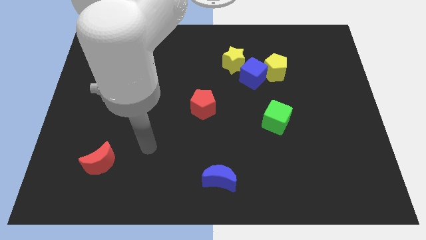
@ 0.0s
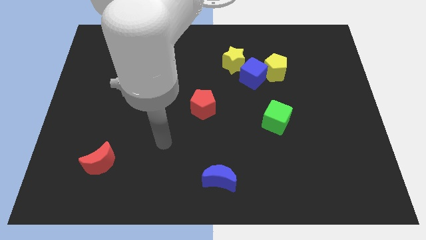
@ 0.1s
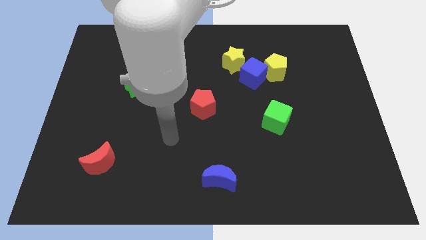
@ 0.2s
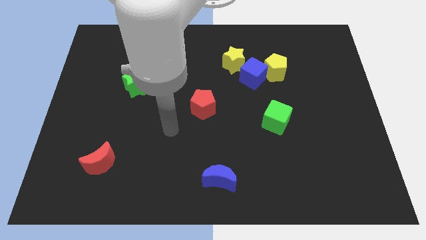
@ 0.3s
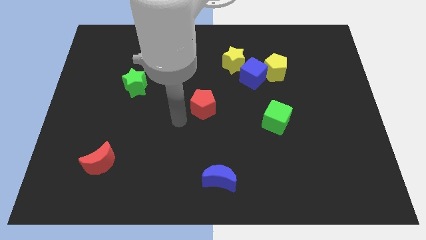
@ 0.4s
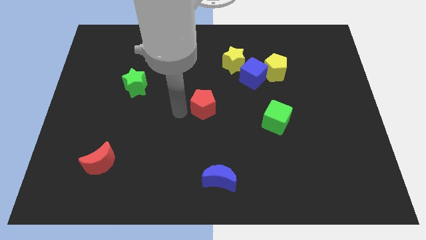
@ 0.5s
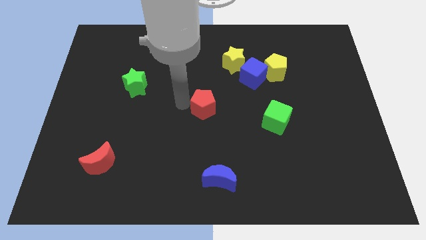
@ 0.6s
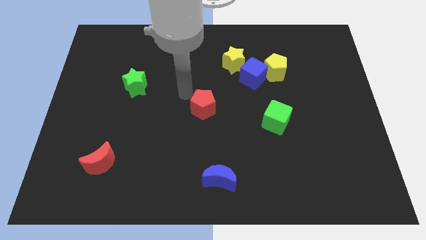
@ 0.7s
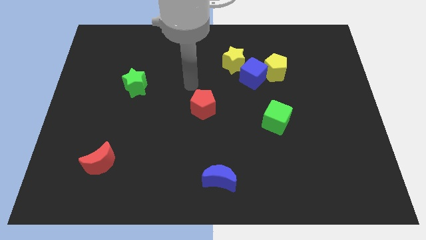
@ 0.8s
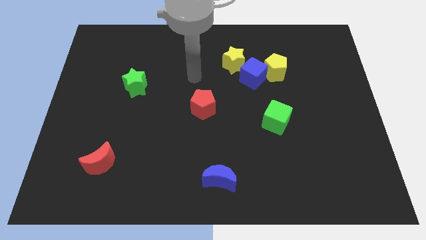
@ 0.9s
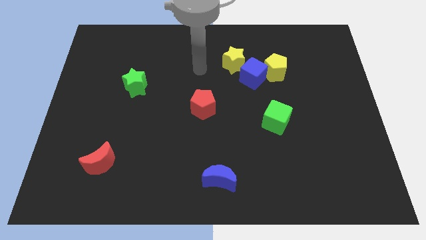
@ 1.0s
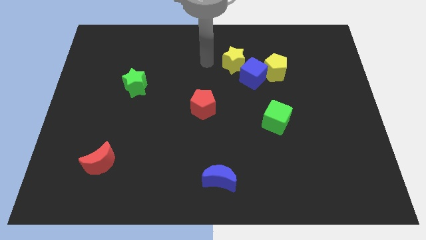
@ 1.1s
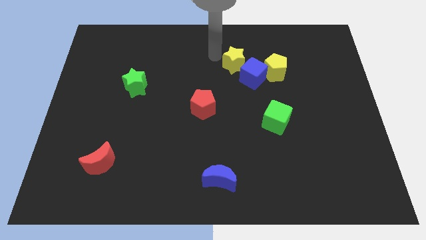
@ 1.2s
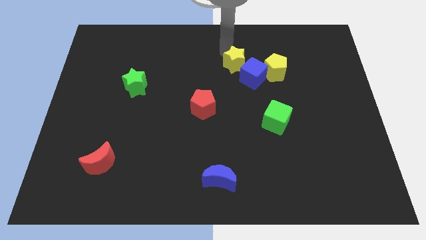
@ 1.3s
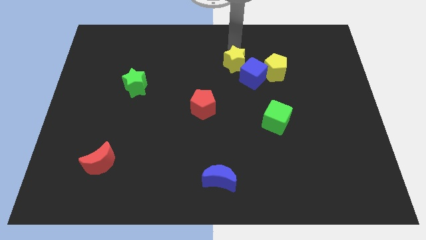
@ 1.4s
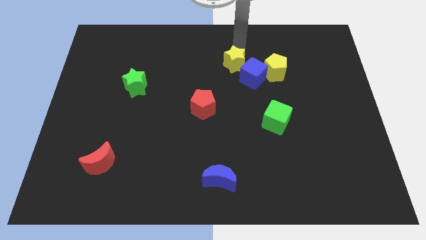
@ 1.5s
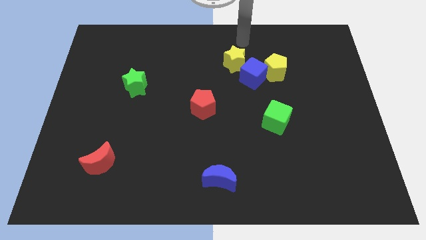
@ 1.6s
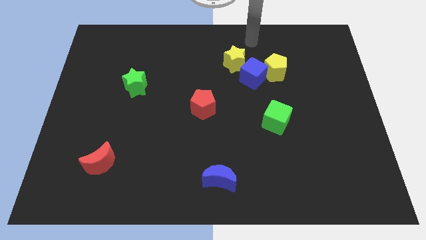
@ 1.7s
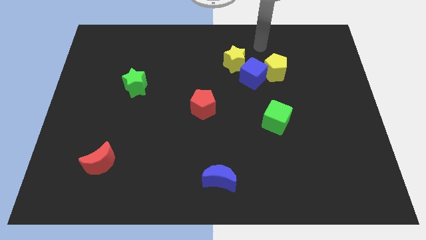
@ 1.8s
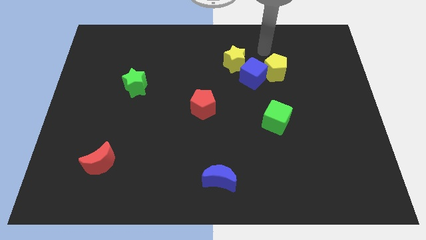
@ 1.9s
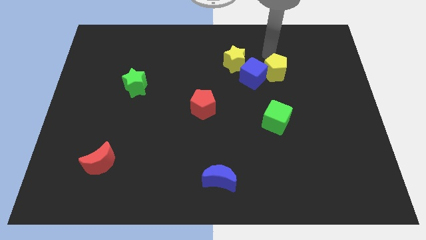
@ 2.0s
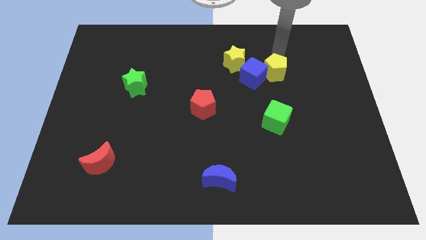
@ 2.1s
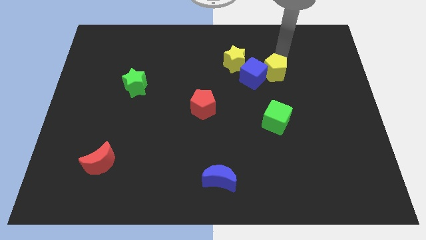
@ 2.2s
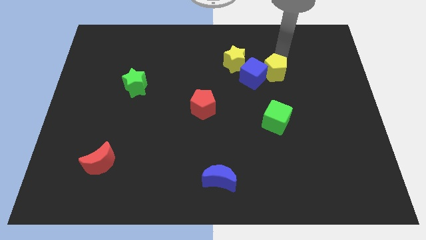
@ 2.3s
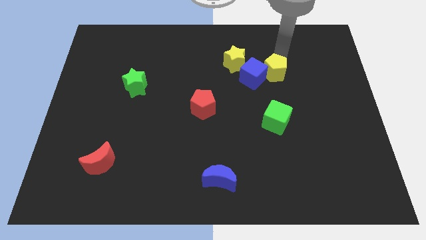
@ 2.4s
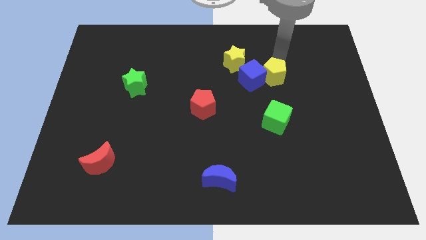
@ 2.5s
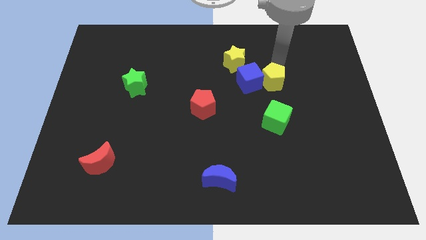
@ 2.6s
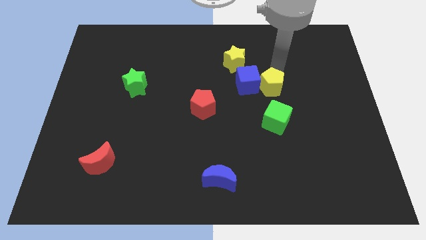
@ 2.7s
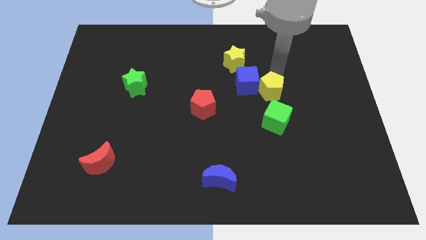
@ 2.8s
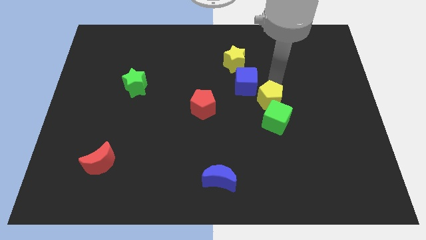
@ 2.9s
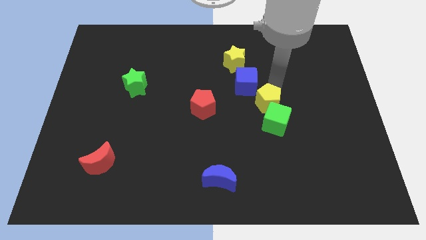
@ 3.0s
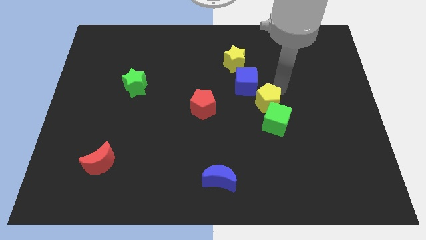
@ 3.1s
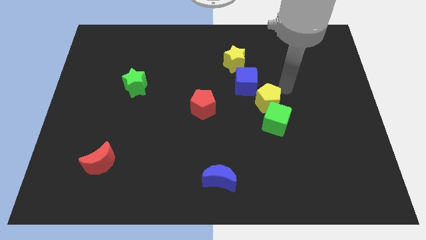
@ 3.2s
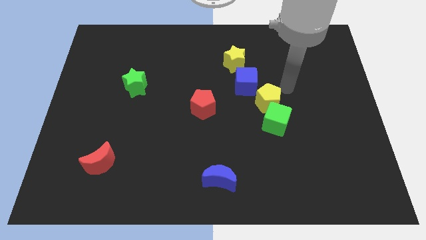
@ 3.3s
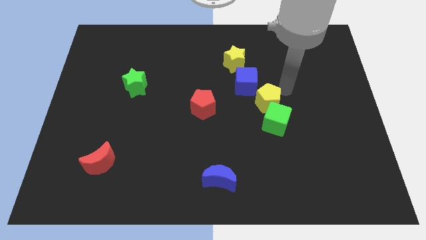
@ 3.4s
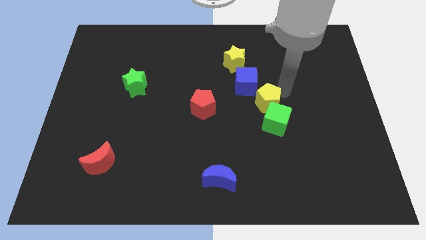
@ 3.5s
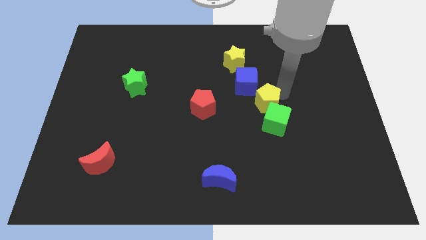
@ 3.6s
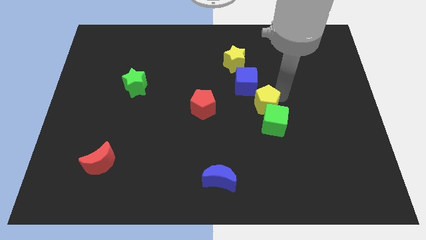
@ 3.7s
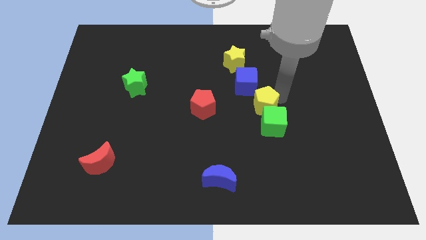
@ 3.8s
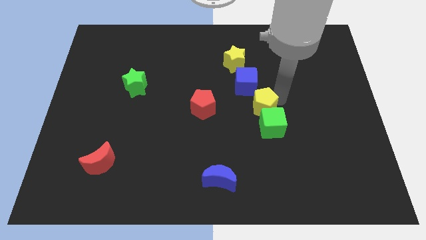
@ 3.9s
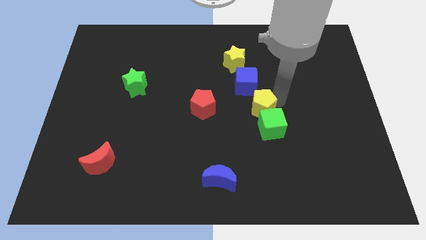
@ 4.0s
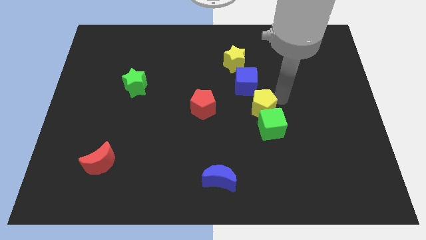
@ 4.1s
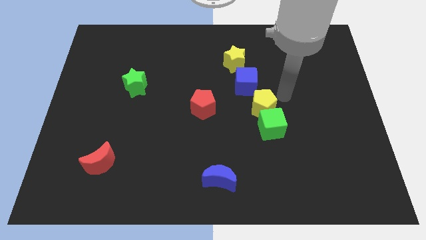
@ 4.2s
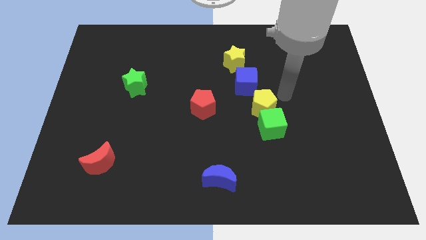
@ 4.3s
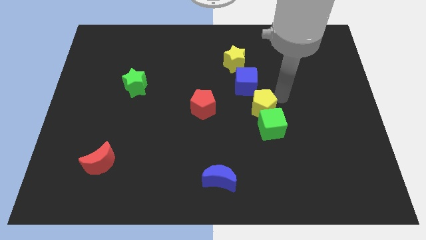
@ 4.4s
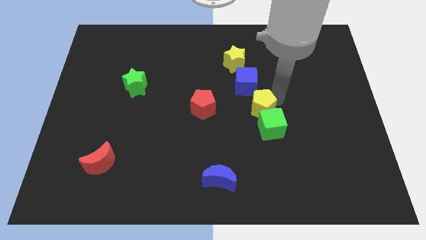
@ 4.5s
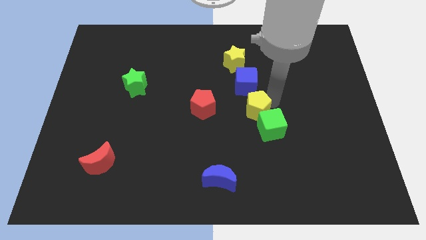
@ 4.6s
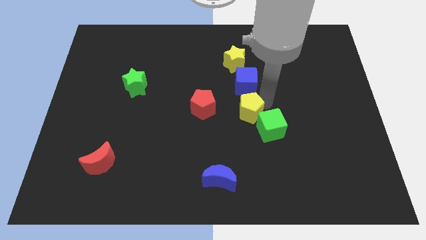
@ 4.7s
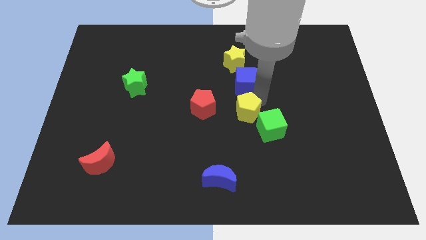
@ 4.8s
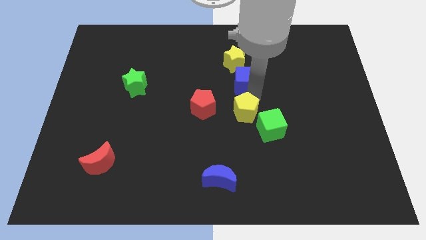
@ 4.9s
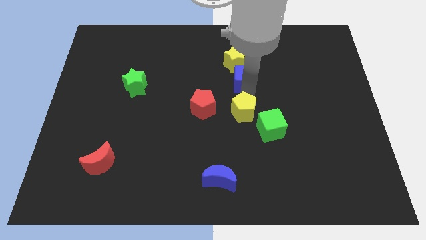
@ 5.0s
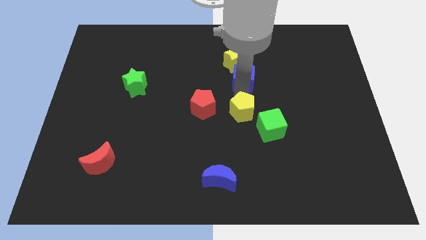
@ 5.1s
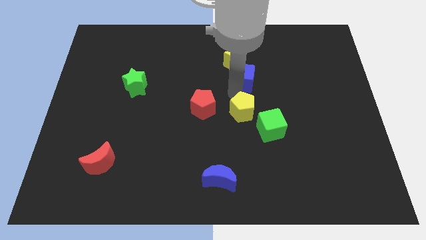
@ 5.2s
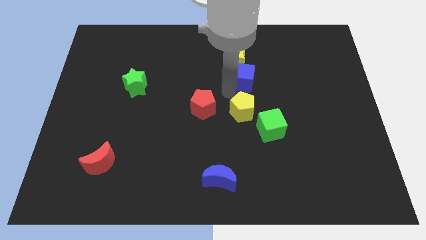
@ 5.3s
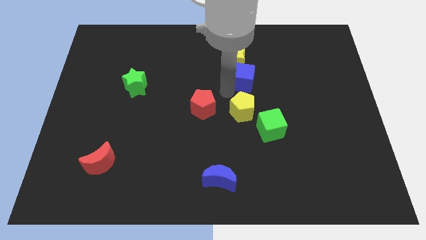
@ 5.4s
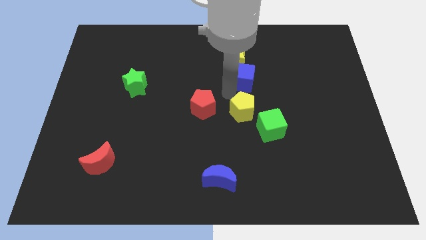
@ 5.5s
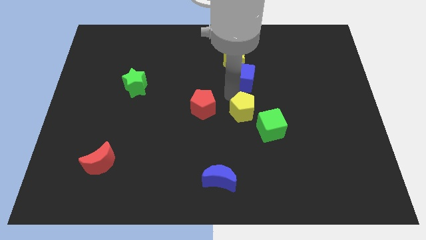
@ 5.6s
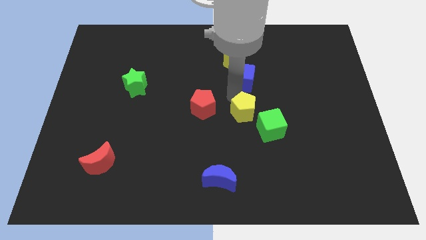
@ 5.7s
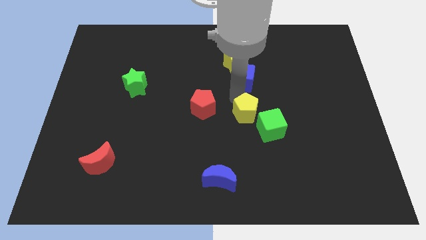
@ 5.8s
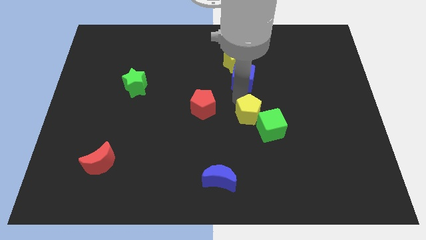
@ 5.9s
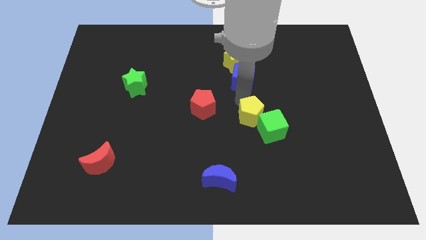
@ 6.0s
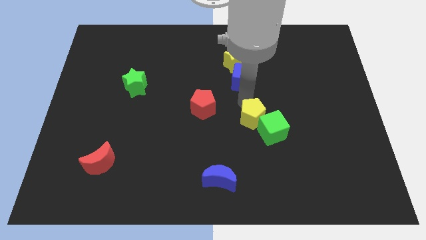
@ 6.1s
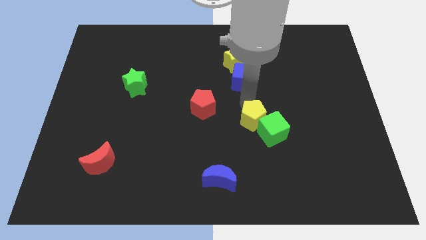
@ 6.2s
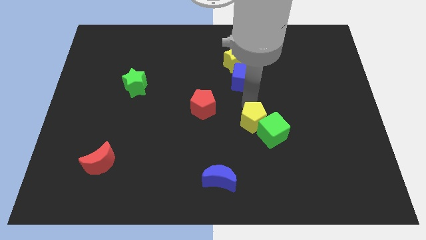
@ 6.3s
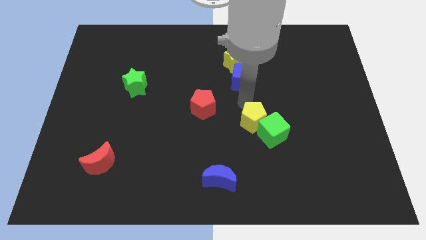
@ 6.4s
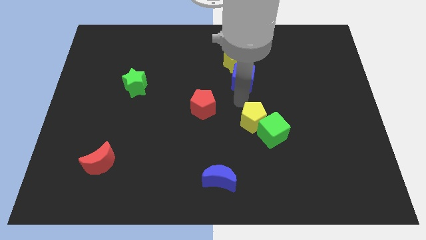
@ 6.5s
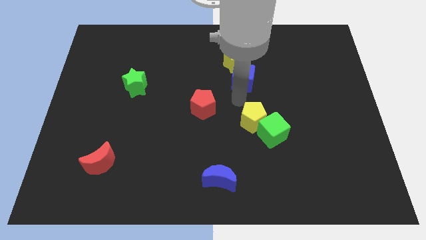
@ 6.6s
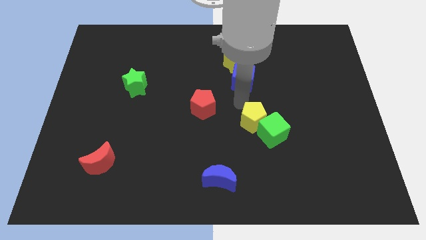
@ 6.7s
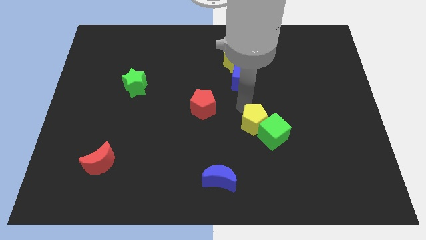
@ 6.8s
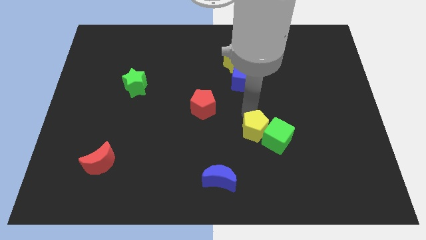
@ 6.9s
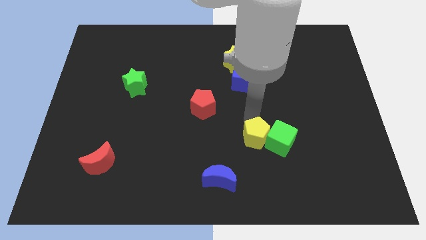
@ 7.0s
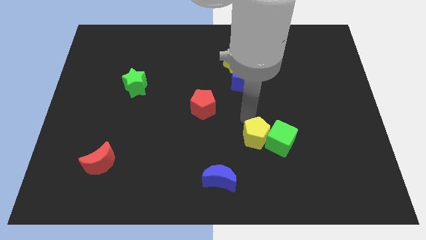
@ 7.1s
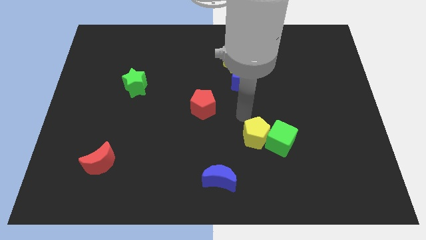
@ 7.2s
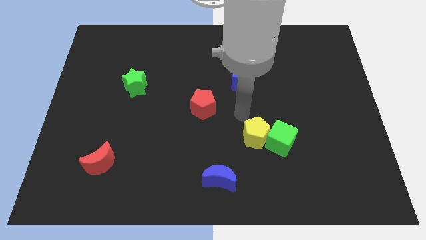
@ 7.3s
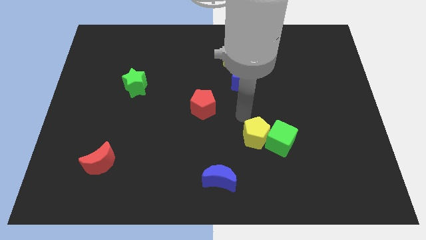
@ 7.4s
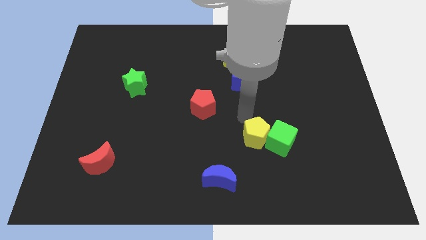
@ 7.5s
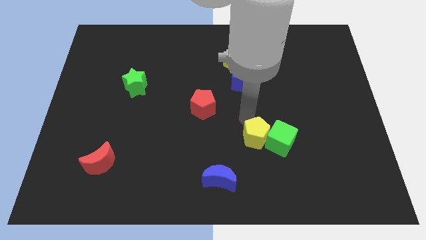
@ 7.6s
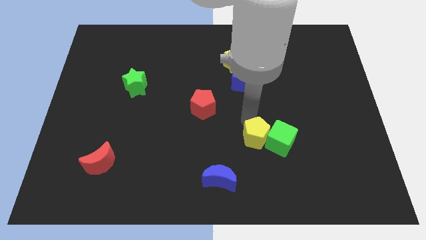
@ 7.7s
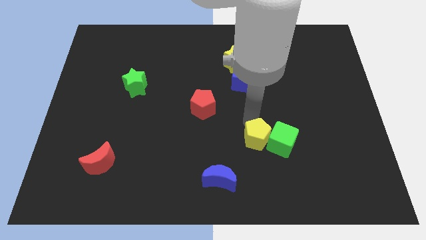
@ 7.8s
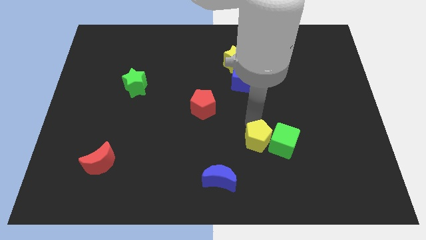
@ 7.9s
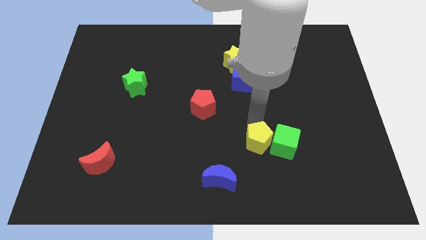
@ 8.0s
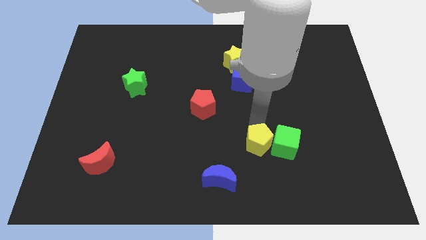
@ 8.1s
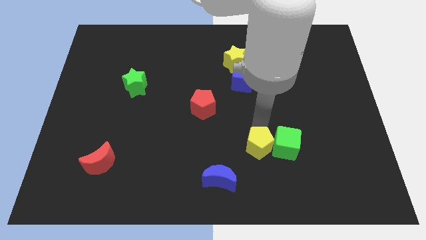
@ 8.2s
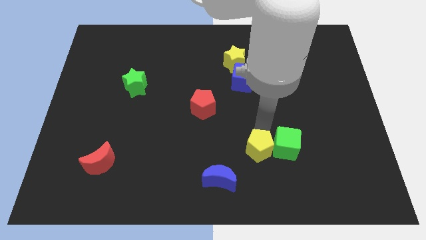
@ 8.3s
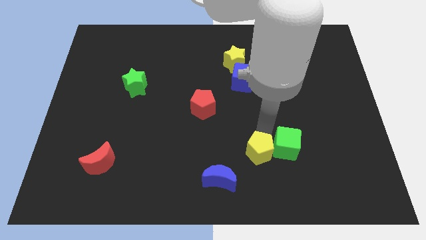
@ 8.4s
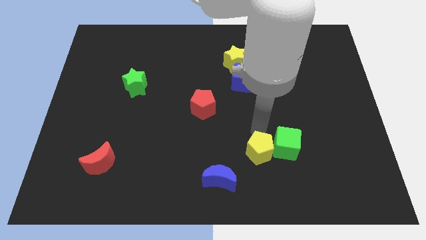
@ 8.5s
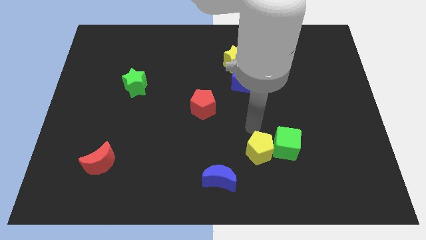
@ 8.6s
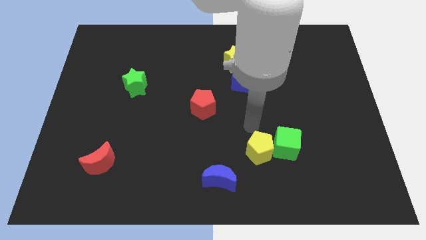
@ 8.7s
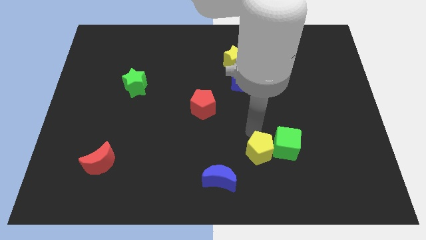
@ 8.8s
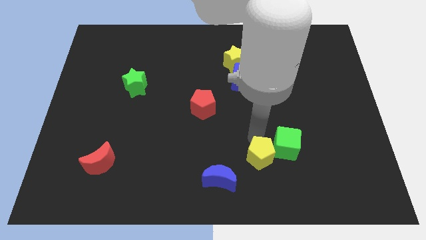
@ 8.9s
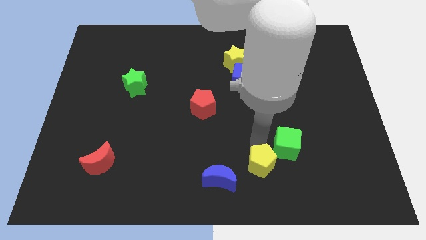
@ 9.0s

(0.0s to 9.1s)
put the yellow pentagon just right of the blue moon
